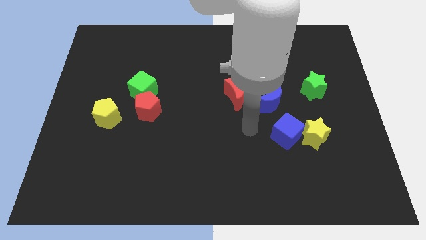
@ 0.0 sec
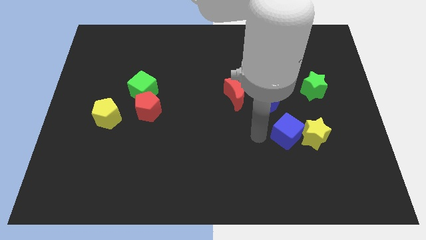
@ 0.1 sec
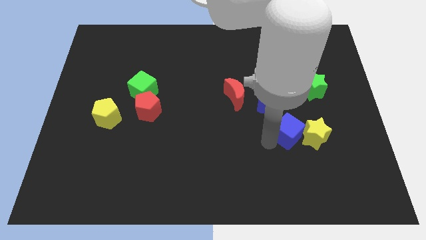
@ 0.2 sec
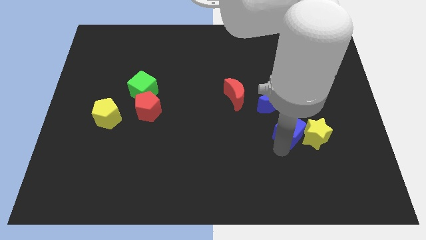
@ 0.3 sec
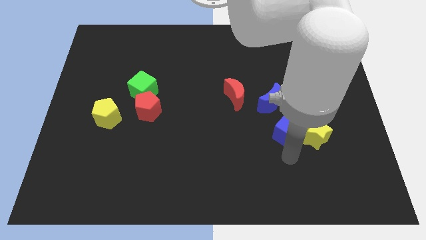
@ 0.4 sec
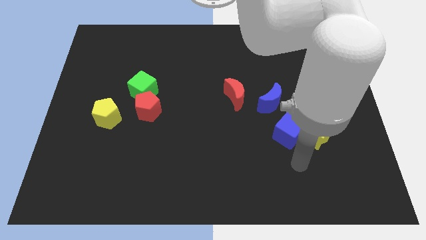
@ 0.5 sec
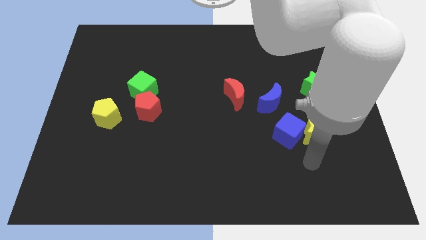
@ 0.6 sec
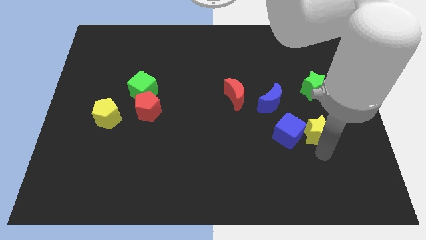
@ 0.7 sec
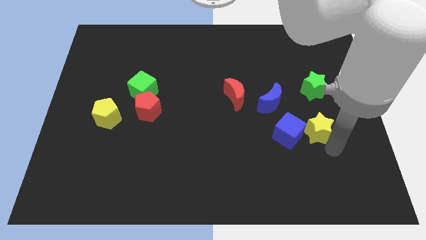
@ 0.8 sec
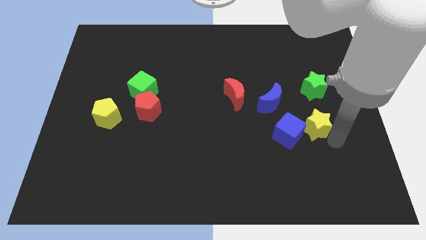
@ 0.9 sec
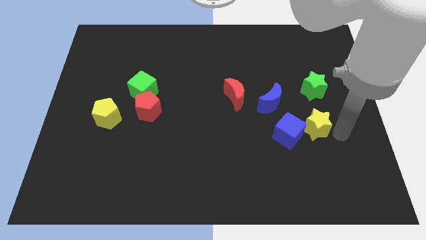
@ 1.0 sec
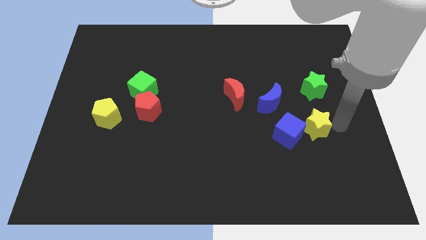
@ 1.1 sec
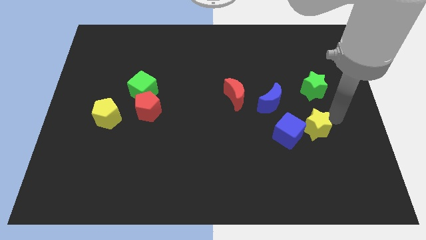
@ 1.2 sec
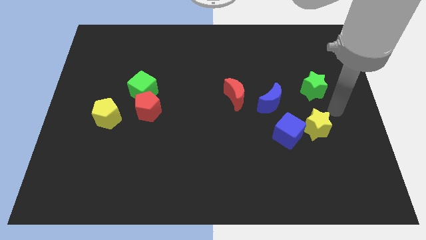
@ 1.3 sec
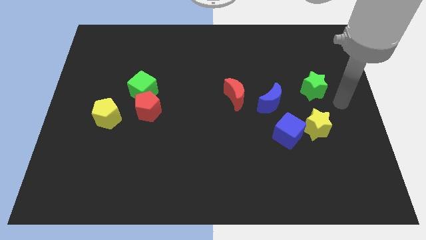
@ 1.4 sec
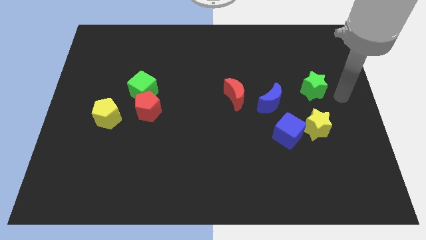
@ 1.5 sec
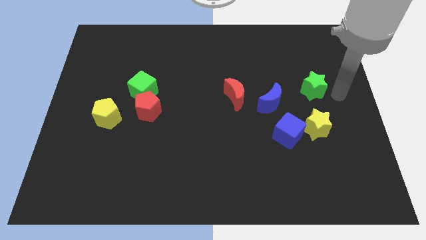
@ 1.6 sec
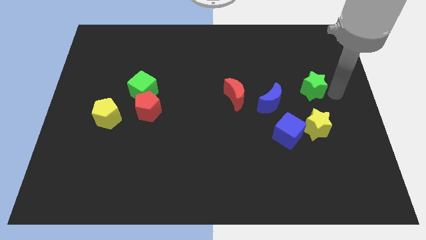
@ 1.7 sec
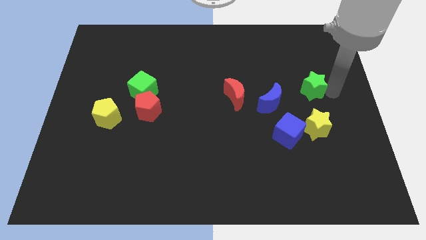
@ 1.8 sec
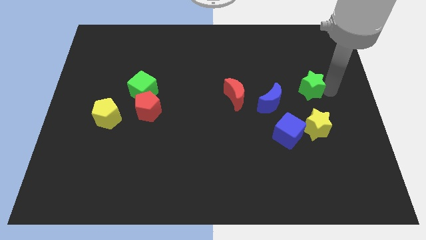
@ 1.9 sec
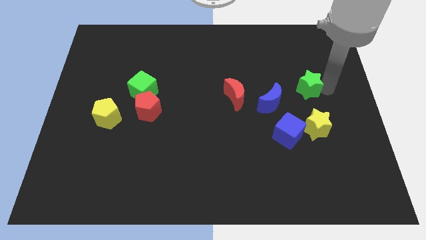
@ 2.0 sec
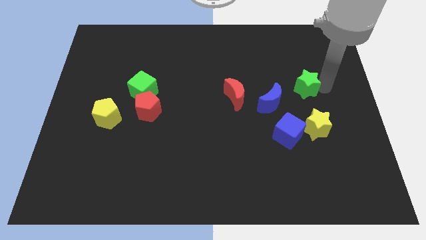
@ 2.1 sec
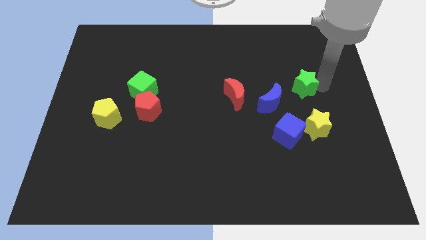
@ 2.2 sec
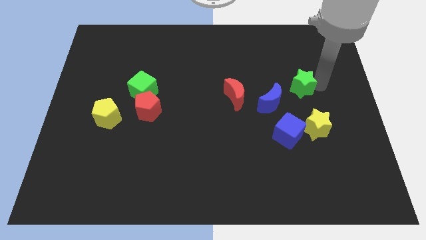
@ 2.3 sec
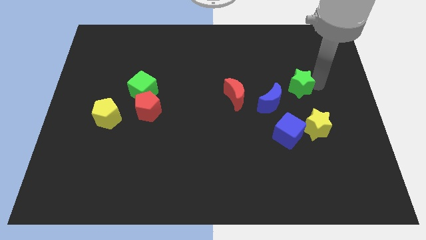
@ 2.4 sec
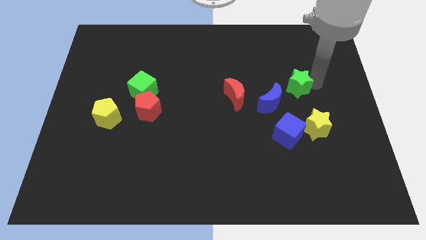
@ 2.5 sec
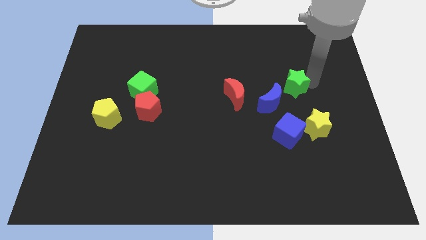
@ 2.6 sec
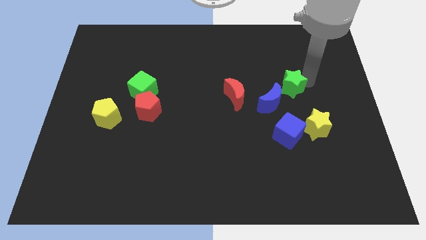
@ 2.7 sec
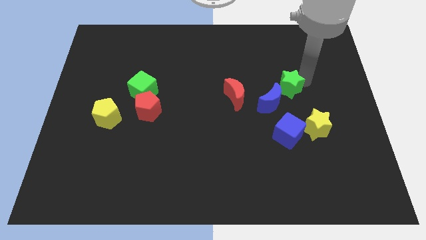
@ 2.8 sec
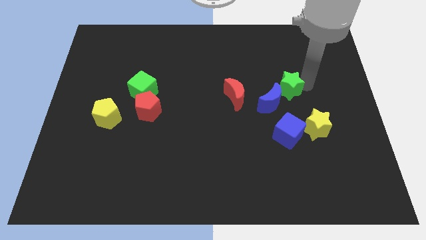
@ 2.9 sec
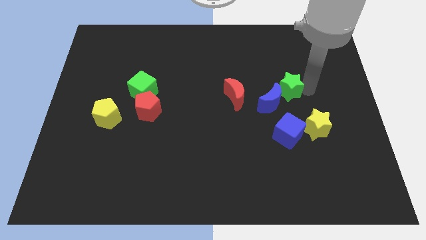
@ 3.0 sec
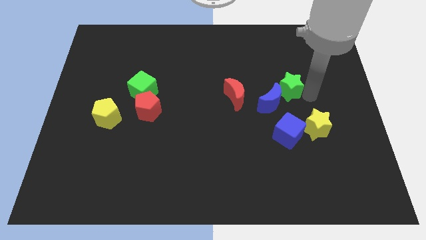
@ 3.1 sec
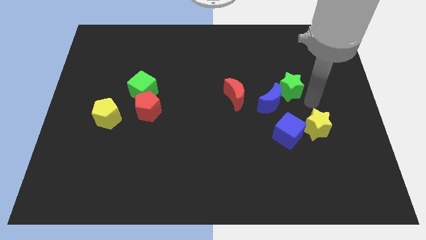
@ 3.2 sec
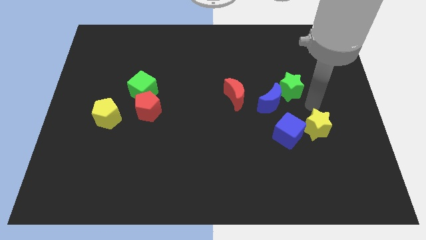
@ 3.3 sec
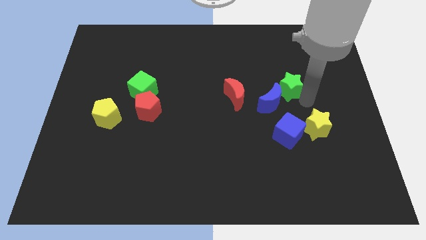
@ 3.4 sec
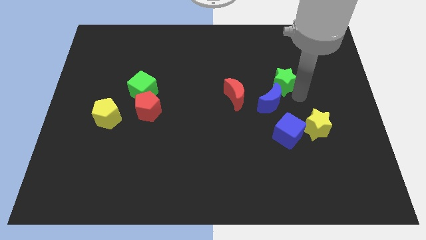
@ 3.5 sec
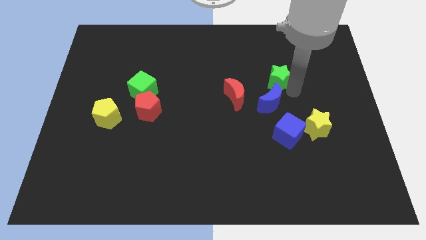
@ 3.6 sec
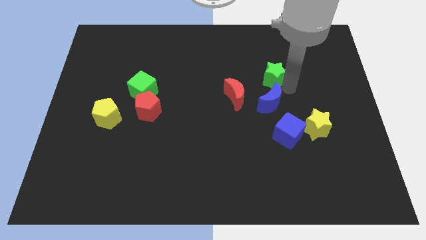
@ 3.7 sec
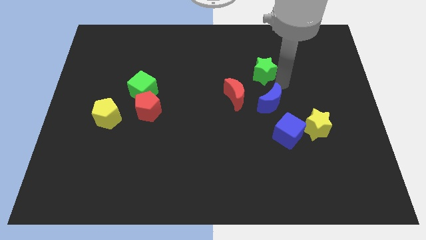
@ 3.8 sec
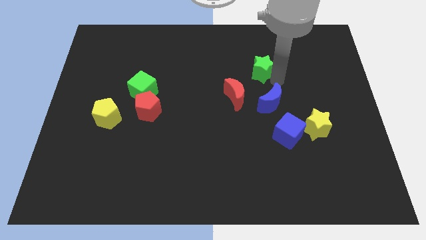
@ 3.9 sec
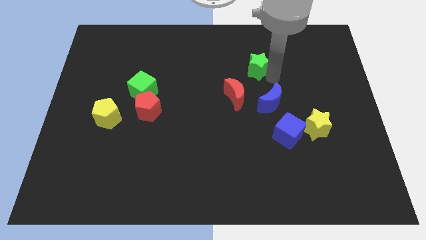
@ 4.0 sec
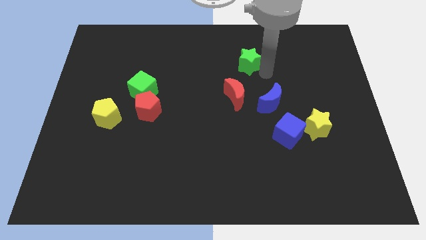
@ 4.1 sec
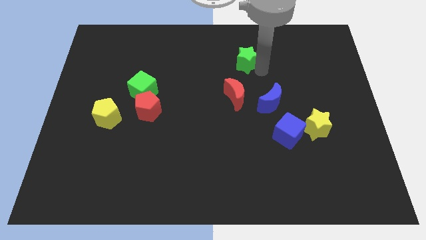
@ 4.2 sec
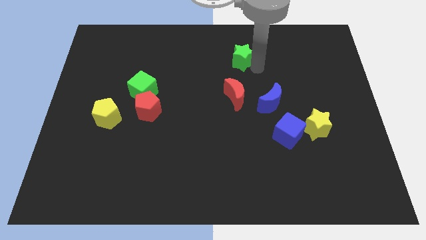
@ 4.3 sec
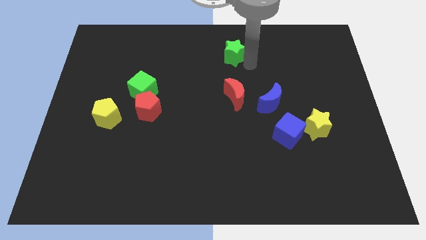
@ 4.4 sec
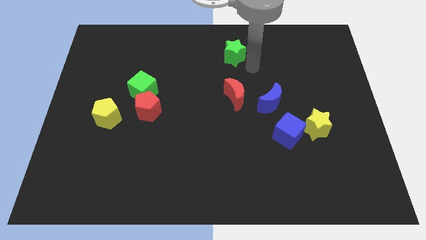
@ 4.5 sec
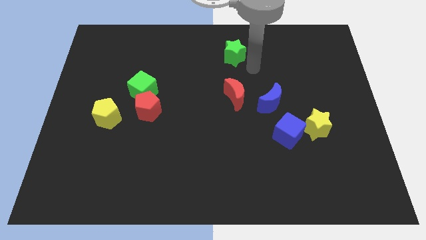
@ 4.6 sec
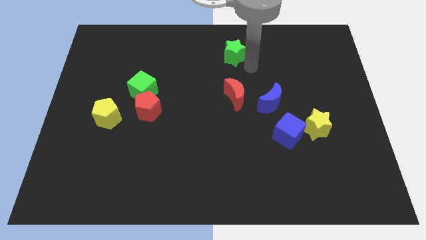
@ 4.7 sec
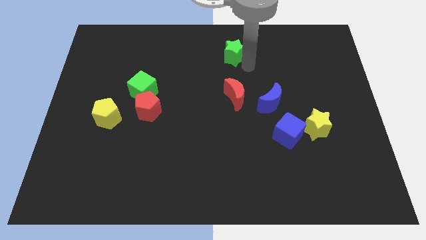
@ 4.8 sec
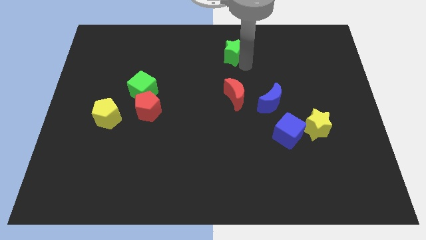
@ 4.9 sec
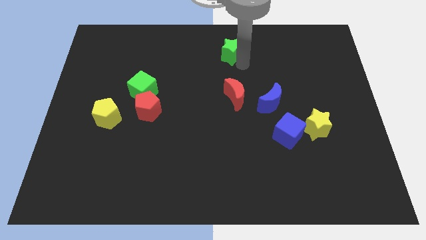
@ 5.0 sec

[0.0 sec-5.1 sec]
slide the green star to the top

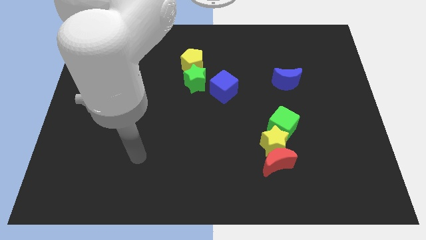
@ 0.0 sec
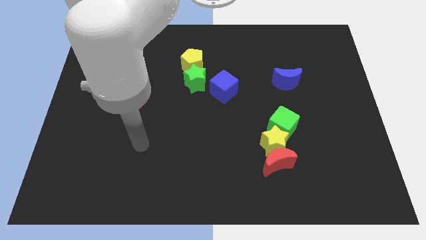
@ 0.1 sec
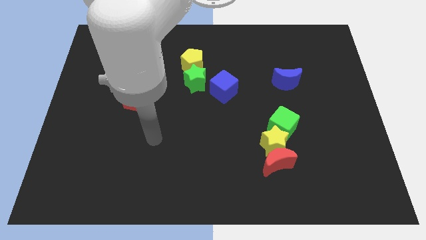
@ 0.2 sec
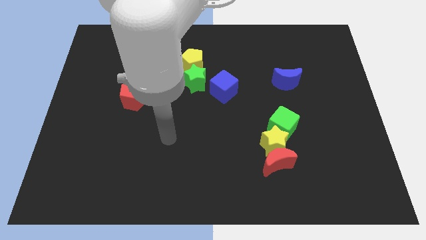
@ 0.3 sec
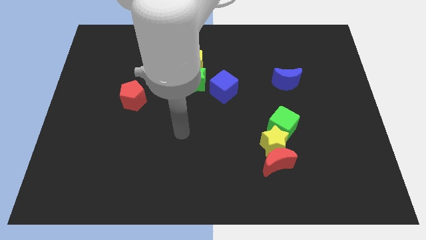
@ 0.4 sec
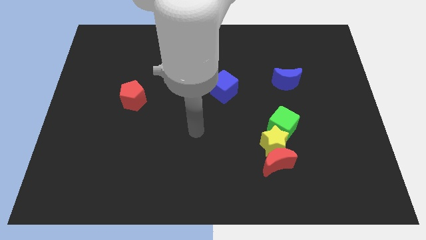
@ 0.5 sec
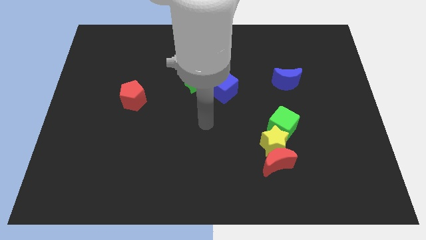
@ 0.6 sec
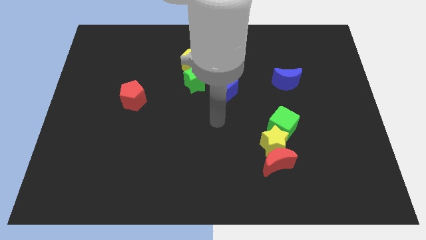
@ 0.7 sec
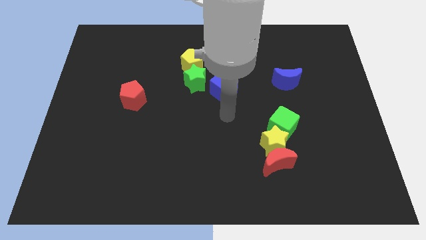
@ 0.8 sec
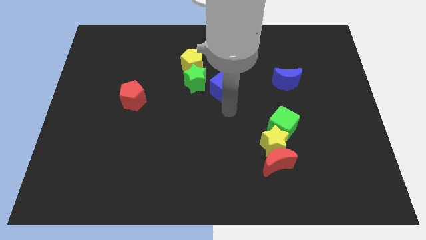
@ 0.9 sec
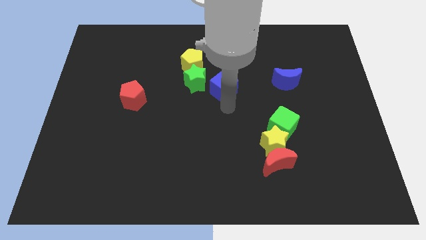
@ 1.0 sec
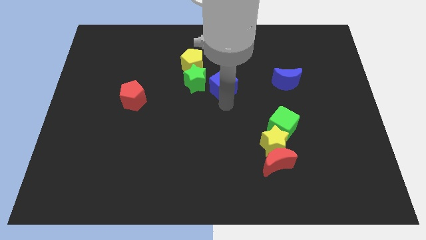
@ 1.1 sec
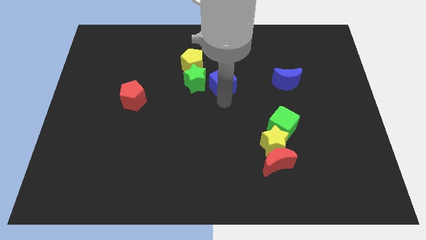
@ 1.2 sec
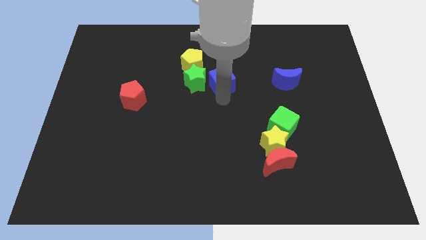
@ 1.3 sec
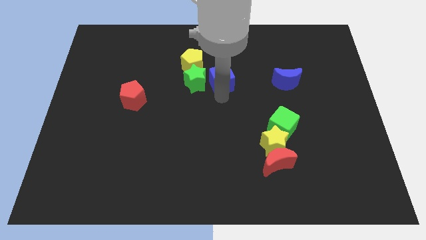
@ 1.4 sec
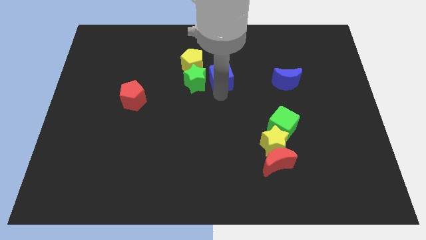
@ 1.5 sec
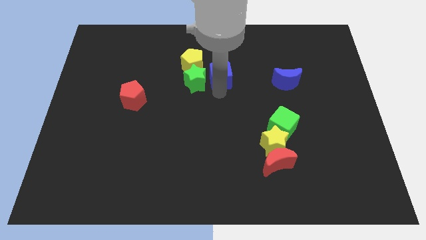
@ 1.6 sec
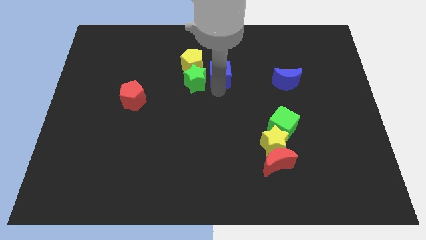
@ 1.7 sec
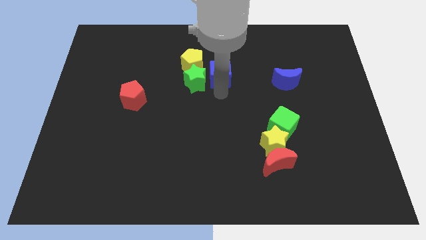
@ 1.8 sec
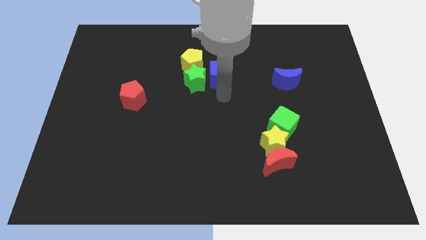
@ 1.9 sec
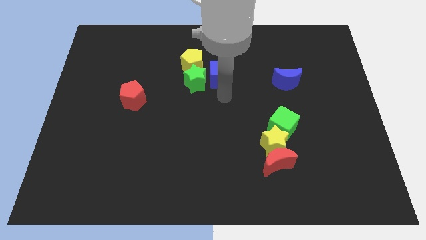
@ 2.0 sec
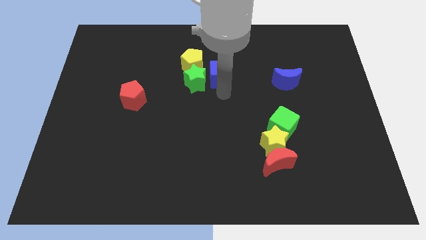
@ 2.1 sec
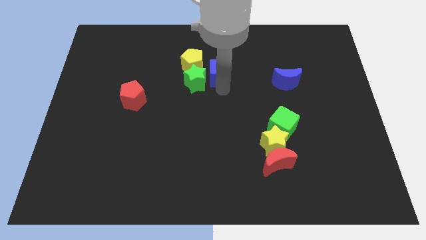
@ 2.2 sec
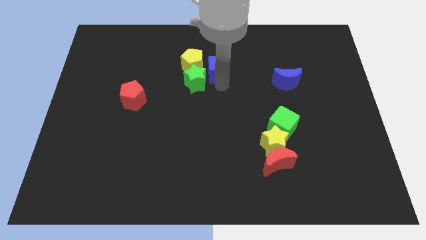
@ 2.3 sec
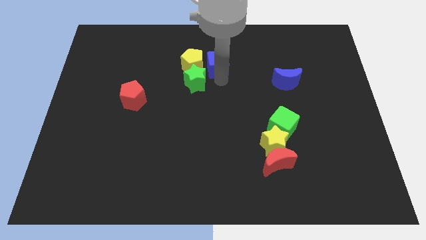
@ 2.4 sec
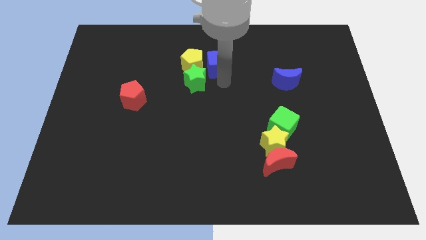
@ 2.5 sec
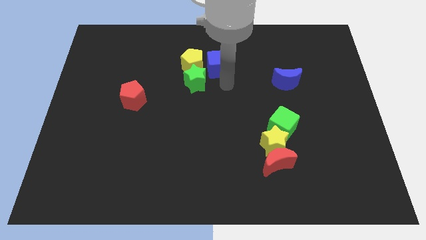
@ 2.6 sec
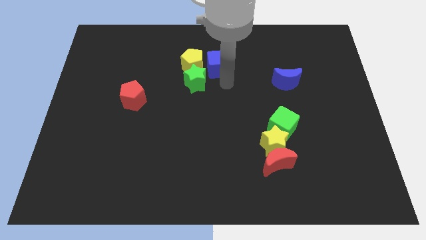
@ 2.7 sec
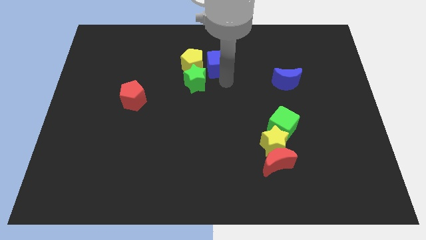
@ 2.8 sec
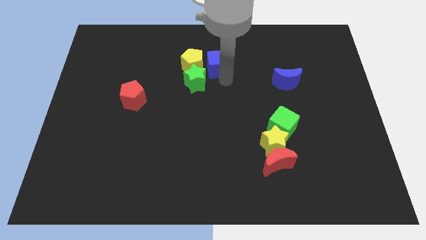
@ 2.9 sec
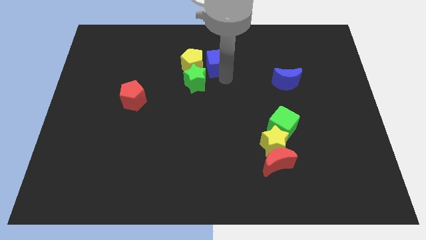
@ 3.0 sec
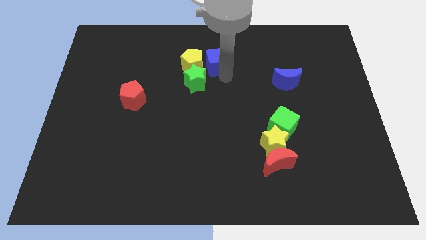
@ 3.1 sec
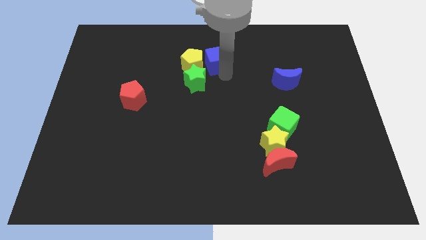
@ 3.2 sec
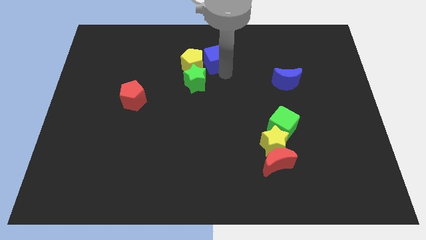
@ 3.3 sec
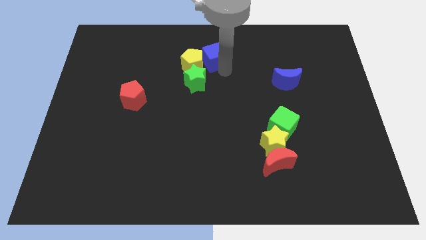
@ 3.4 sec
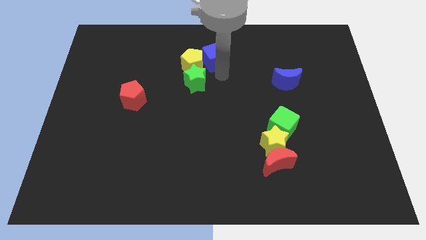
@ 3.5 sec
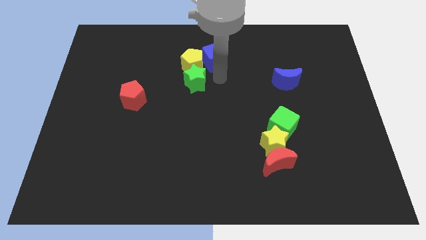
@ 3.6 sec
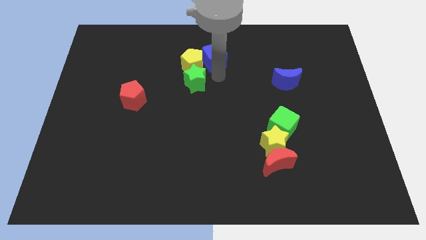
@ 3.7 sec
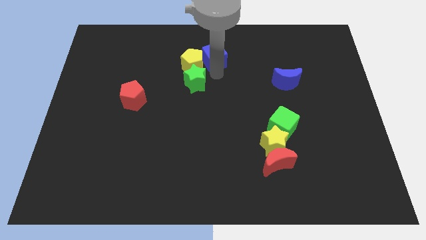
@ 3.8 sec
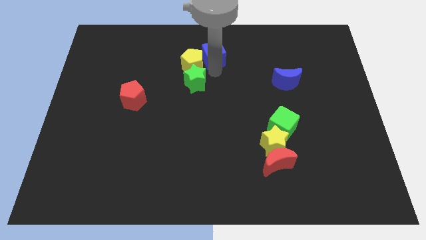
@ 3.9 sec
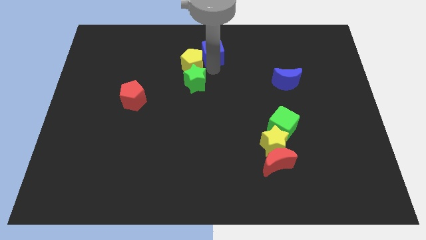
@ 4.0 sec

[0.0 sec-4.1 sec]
push the blue cube to the top
